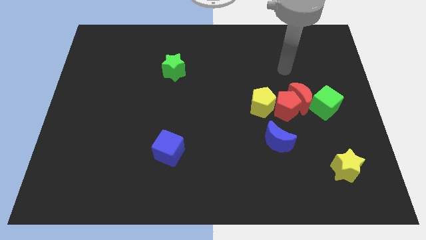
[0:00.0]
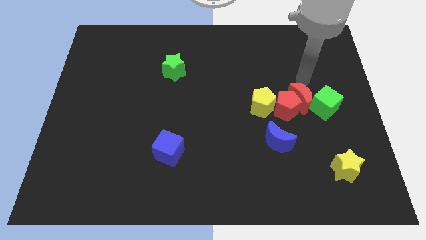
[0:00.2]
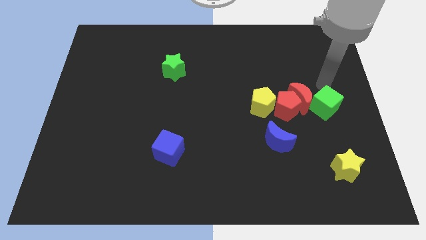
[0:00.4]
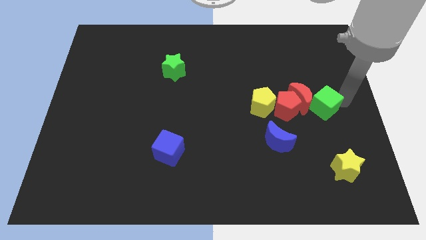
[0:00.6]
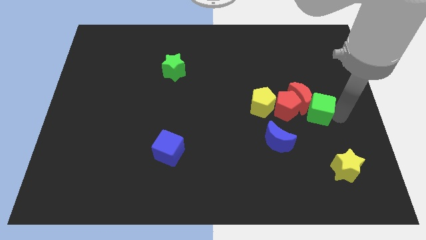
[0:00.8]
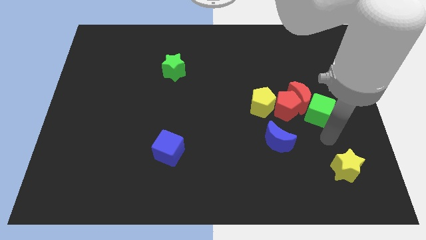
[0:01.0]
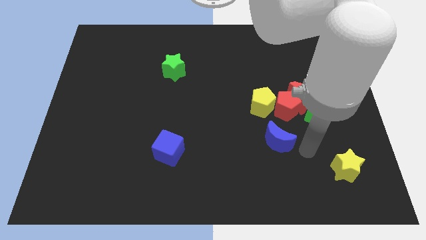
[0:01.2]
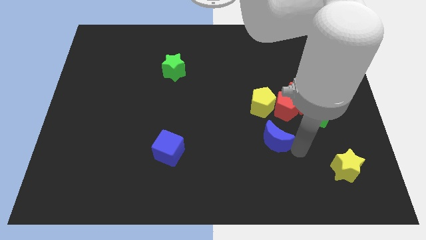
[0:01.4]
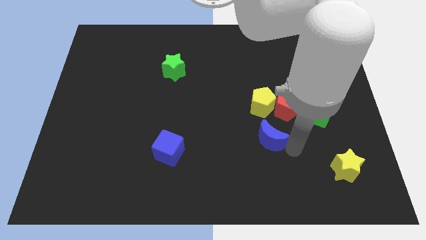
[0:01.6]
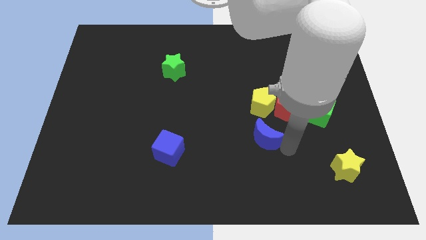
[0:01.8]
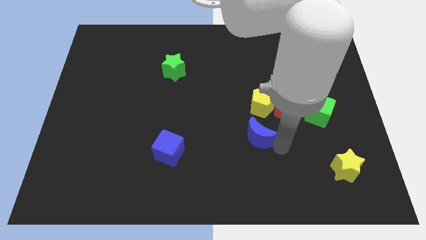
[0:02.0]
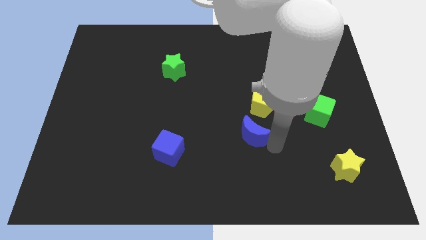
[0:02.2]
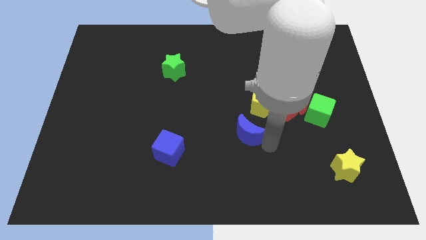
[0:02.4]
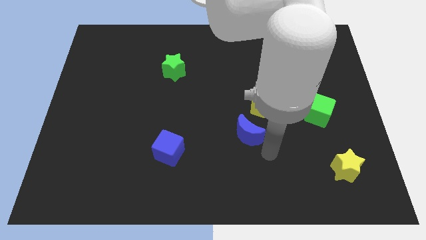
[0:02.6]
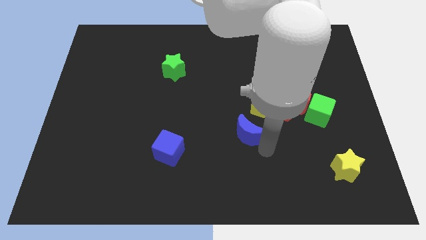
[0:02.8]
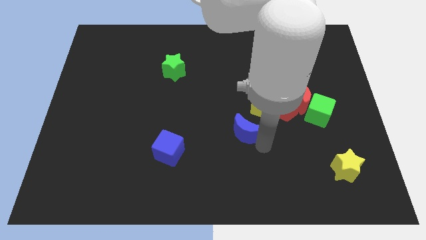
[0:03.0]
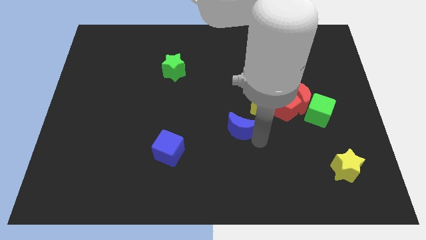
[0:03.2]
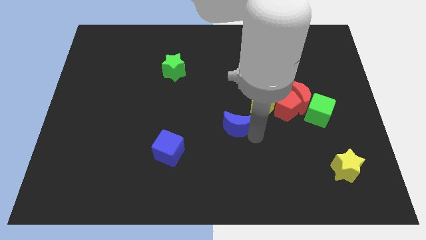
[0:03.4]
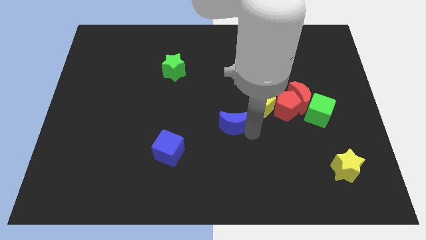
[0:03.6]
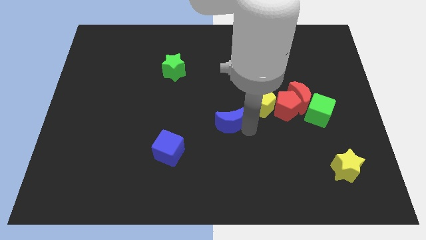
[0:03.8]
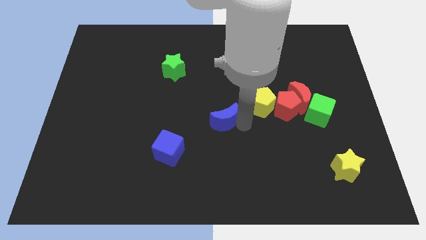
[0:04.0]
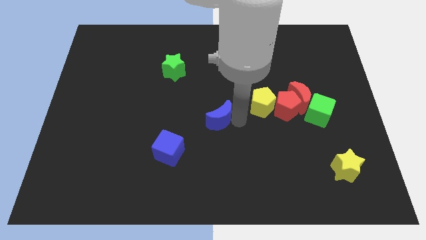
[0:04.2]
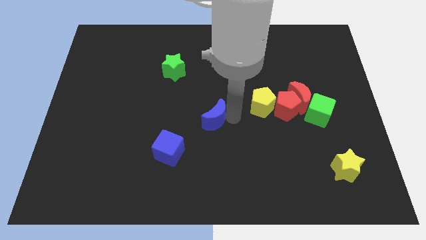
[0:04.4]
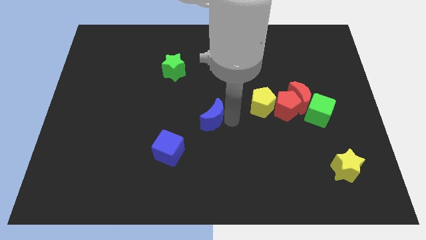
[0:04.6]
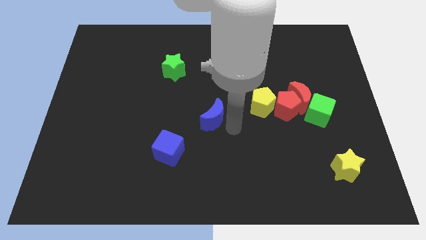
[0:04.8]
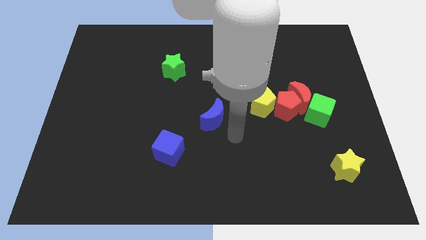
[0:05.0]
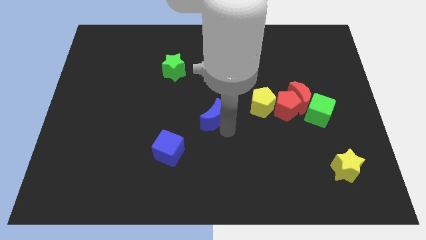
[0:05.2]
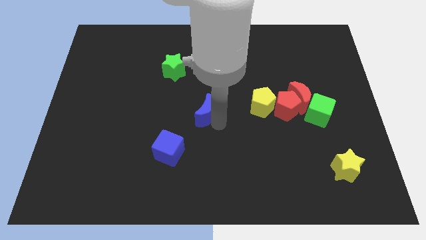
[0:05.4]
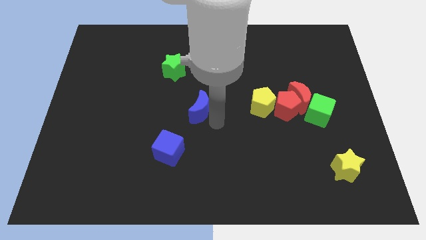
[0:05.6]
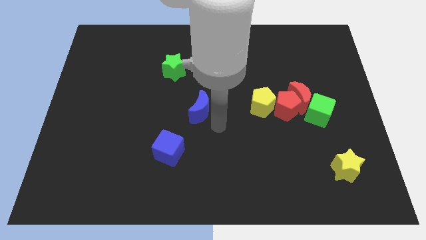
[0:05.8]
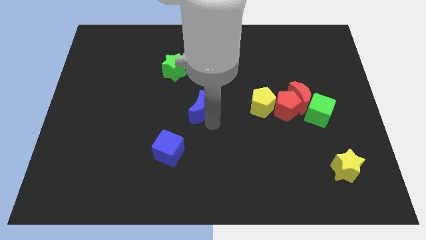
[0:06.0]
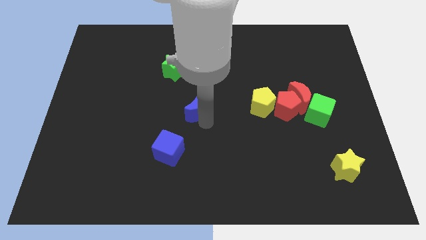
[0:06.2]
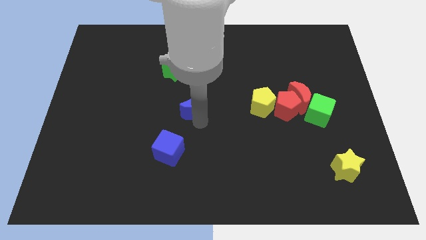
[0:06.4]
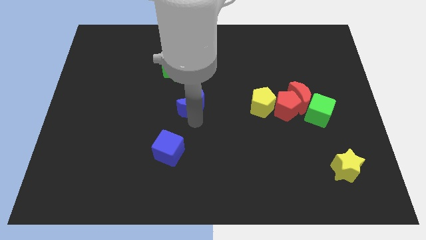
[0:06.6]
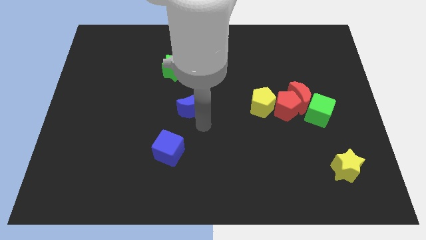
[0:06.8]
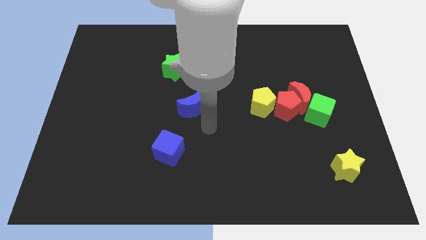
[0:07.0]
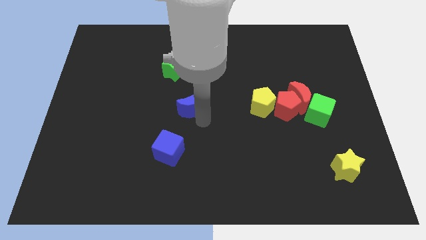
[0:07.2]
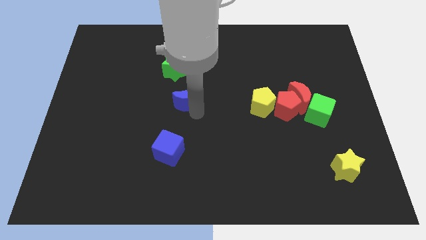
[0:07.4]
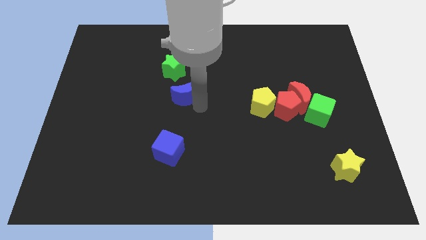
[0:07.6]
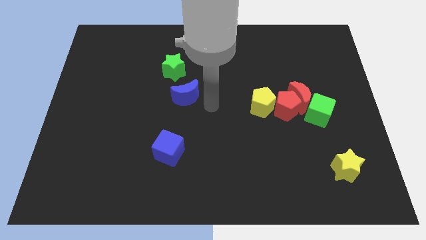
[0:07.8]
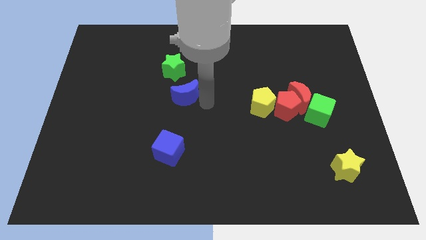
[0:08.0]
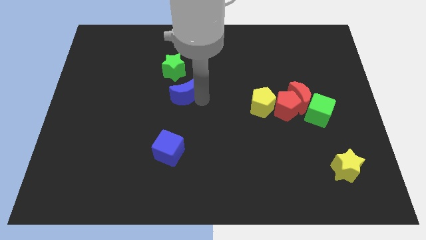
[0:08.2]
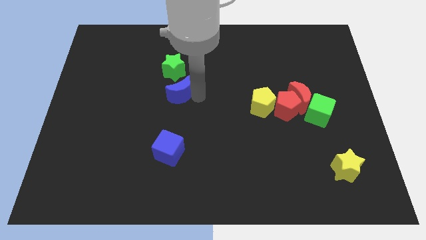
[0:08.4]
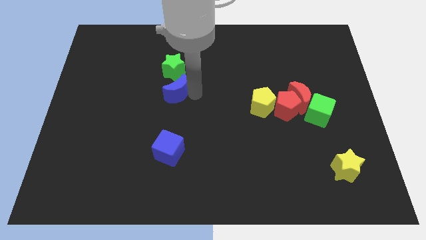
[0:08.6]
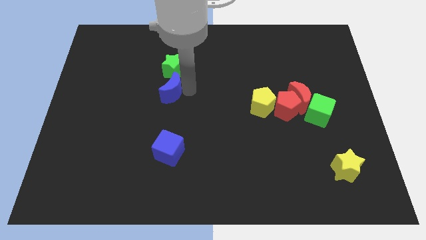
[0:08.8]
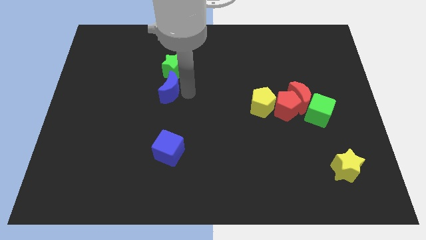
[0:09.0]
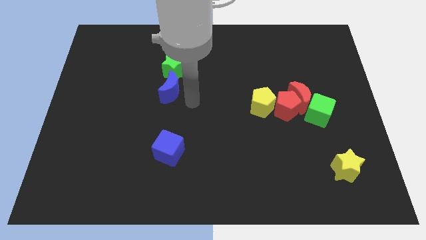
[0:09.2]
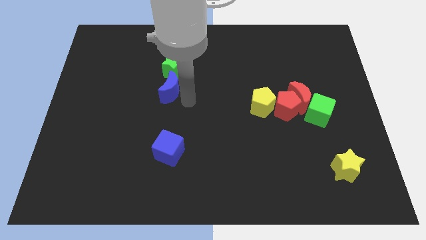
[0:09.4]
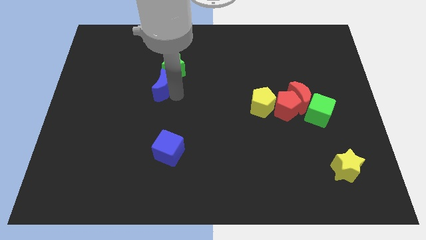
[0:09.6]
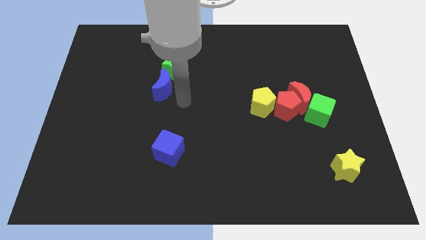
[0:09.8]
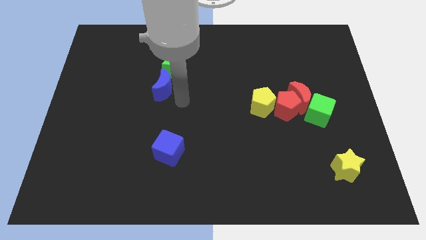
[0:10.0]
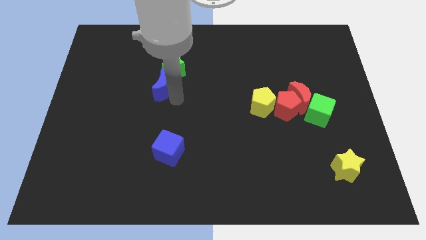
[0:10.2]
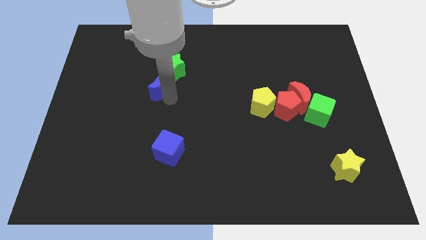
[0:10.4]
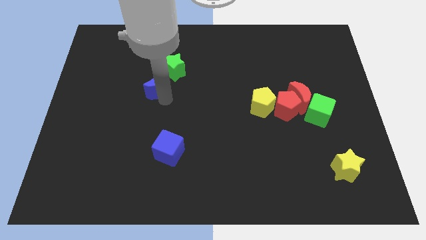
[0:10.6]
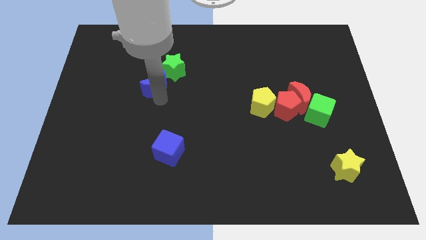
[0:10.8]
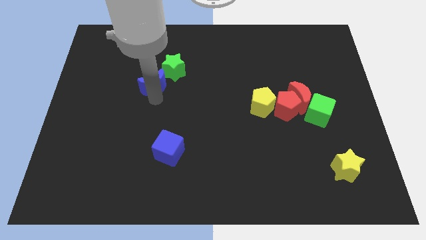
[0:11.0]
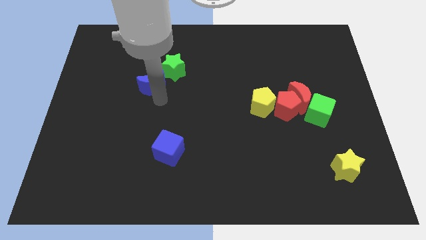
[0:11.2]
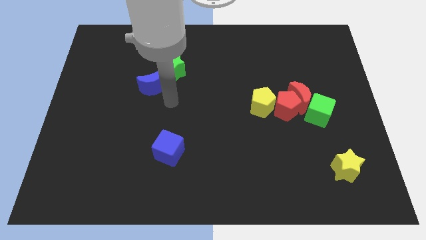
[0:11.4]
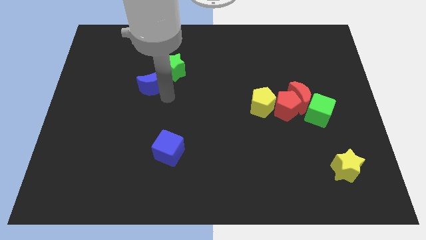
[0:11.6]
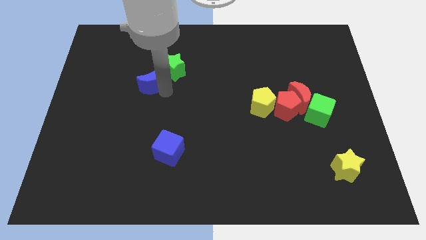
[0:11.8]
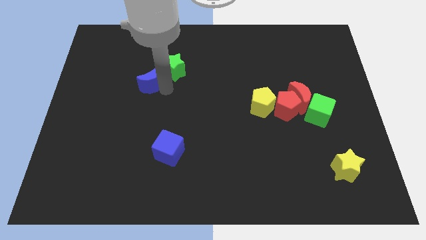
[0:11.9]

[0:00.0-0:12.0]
put the blue moon left of the green star

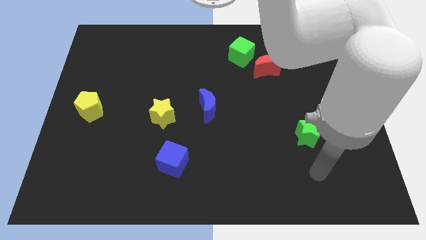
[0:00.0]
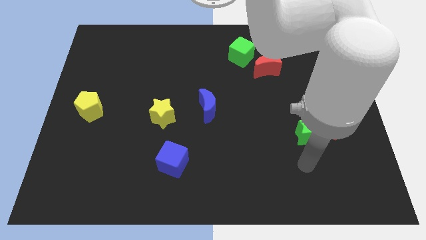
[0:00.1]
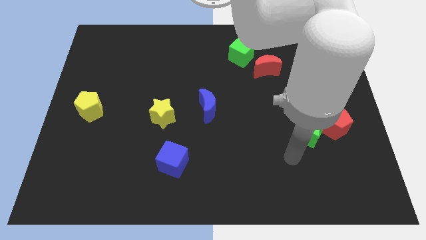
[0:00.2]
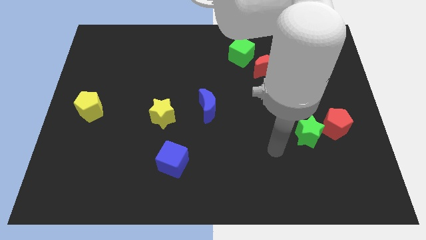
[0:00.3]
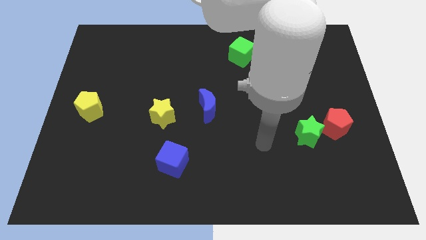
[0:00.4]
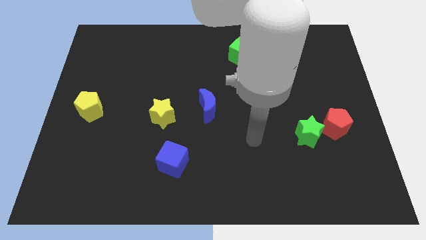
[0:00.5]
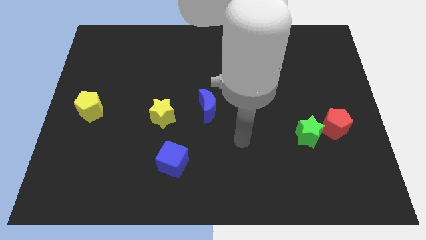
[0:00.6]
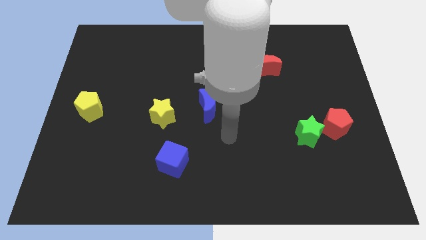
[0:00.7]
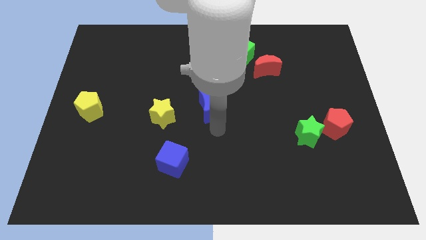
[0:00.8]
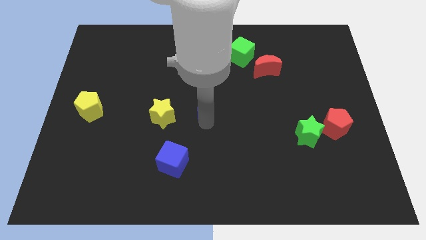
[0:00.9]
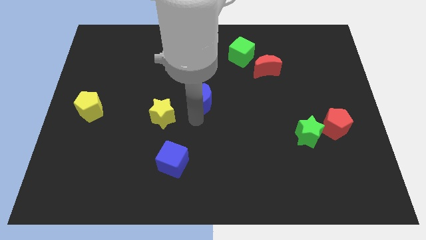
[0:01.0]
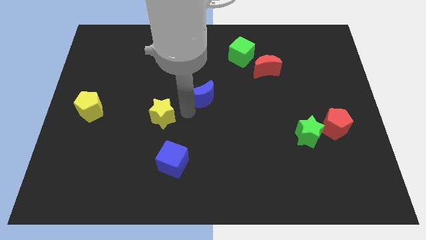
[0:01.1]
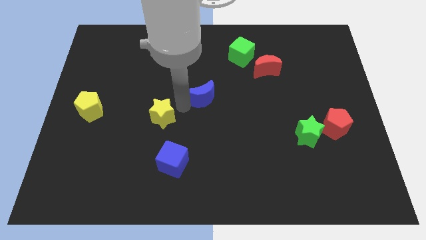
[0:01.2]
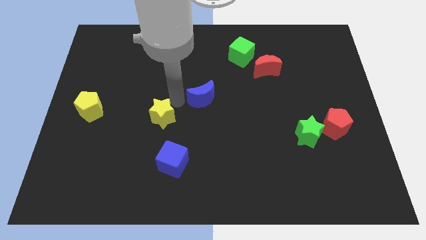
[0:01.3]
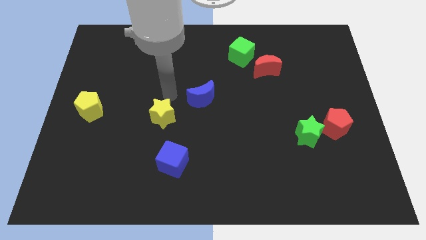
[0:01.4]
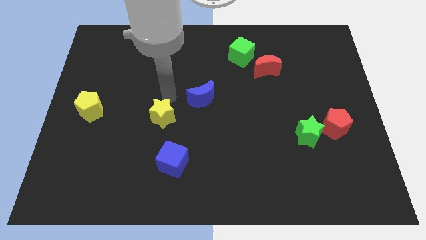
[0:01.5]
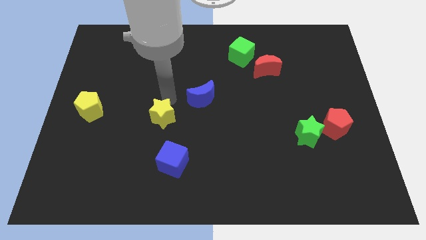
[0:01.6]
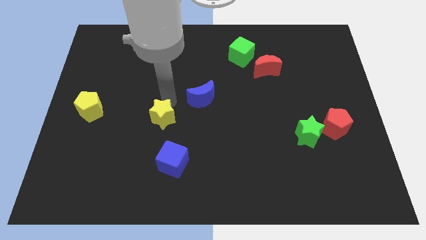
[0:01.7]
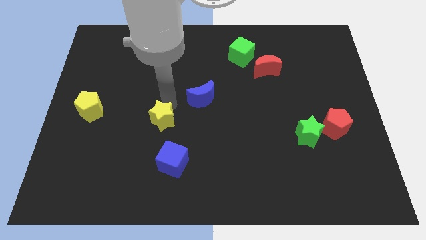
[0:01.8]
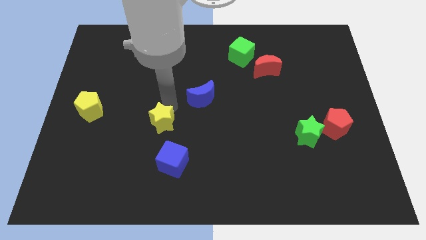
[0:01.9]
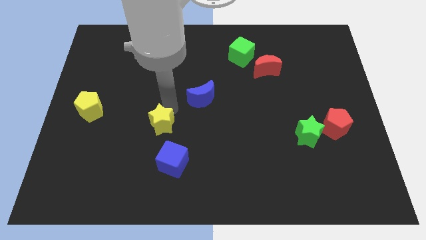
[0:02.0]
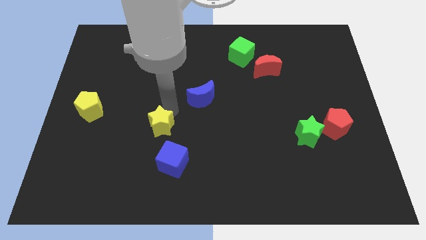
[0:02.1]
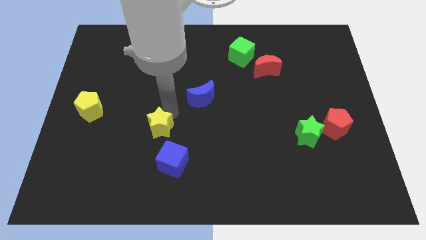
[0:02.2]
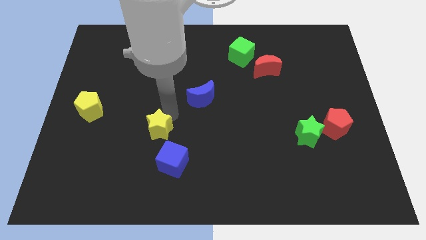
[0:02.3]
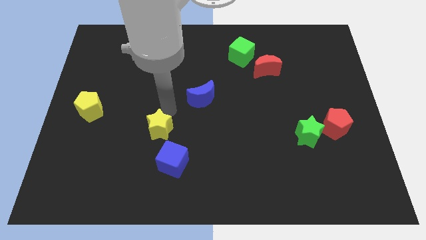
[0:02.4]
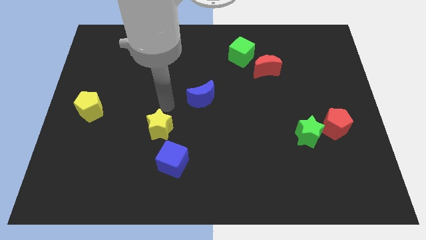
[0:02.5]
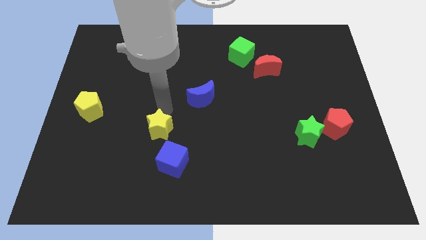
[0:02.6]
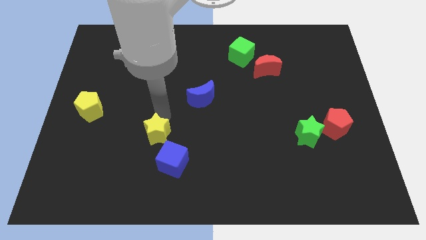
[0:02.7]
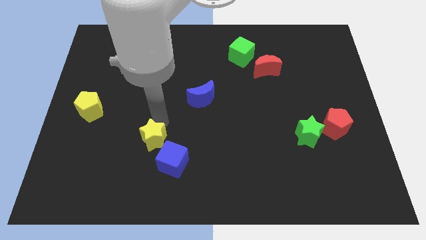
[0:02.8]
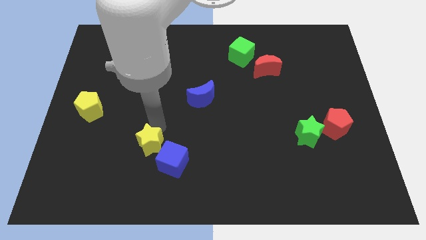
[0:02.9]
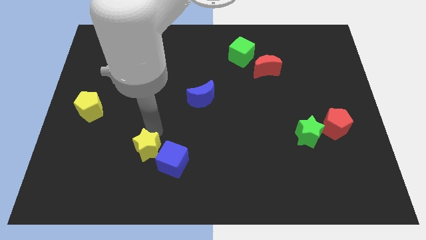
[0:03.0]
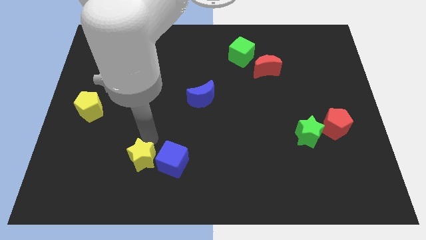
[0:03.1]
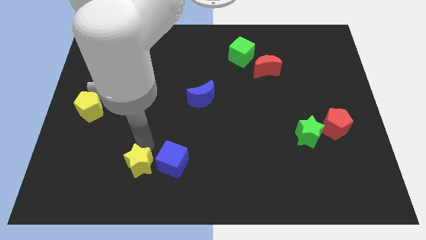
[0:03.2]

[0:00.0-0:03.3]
move the yellow star to the bottom left of the blue cube
